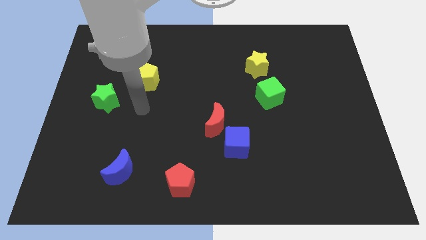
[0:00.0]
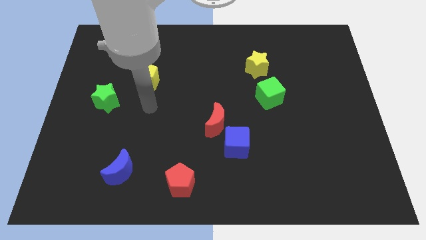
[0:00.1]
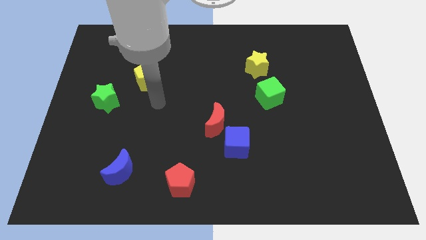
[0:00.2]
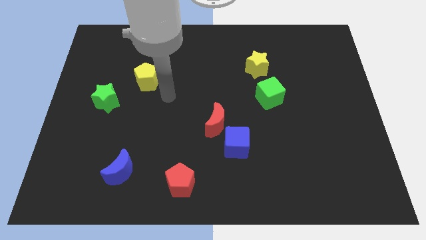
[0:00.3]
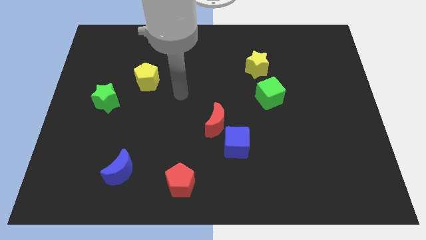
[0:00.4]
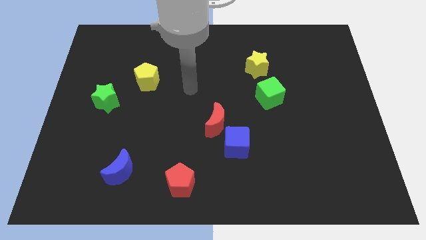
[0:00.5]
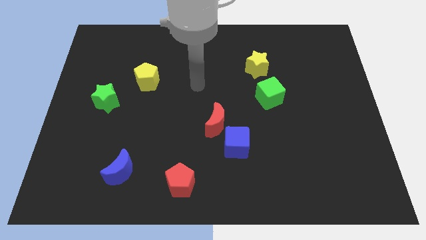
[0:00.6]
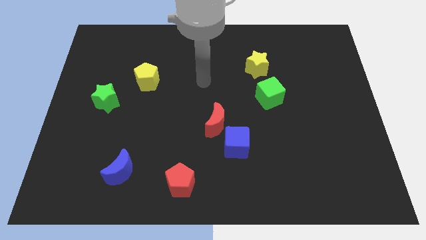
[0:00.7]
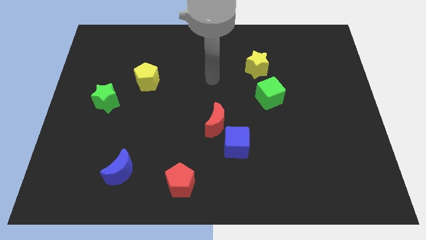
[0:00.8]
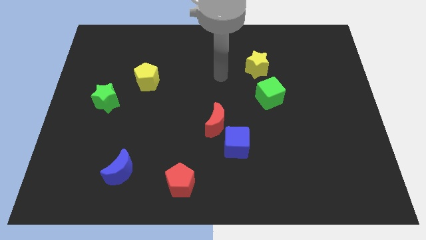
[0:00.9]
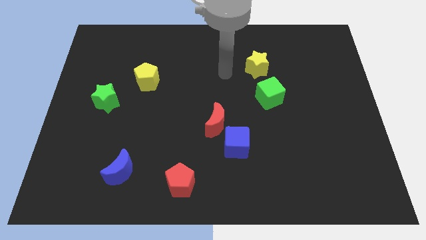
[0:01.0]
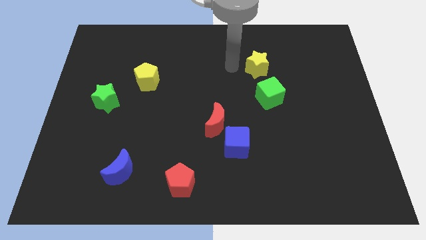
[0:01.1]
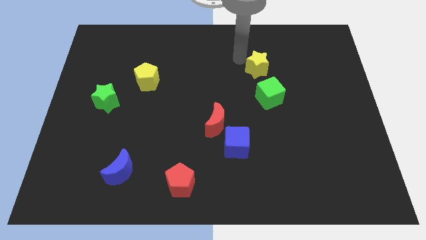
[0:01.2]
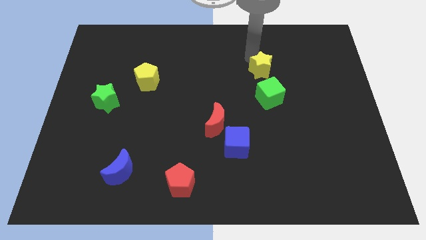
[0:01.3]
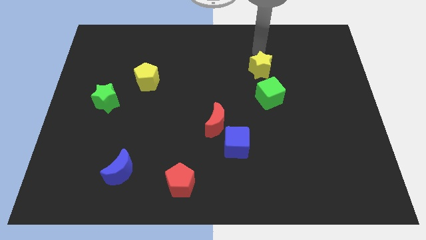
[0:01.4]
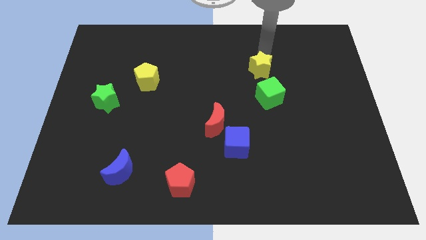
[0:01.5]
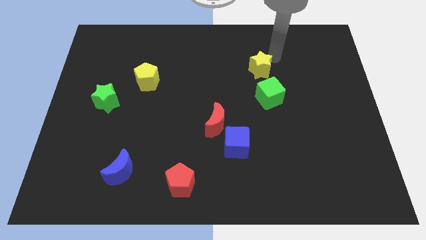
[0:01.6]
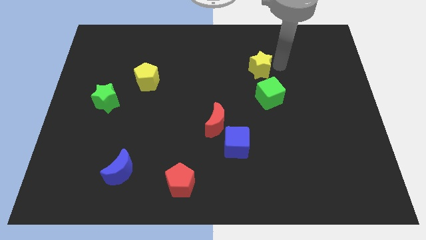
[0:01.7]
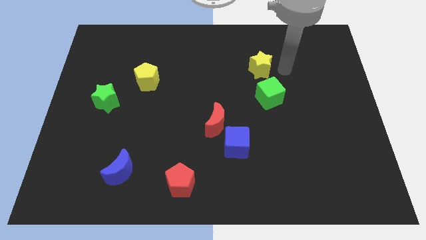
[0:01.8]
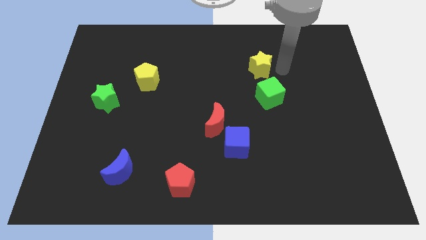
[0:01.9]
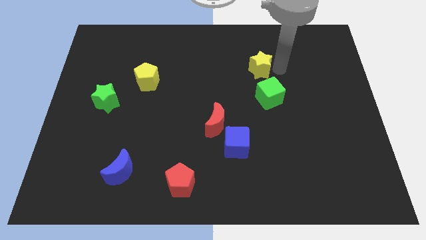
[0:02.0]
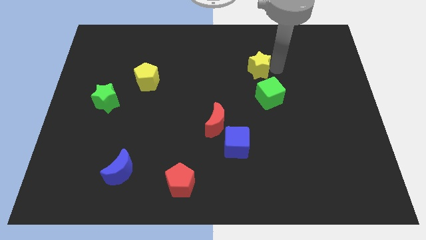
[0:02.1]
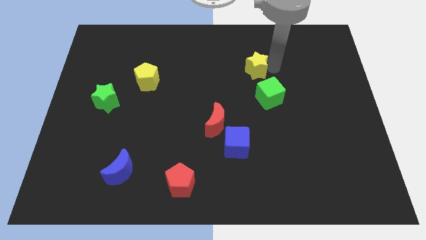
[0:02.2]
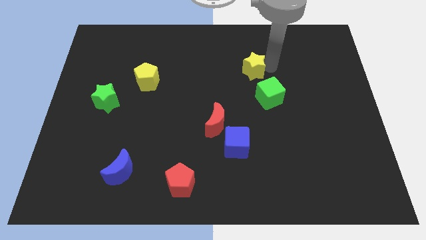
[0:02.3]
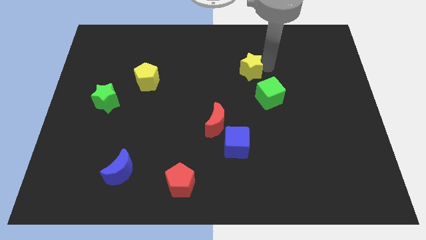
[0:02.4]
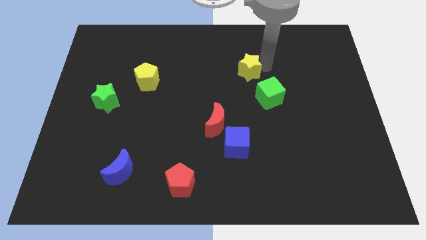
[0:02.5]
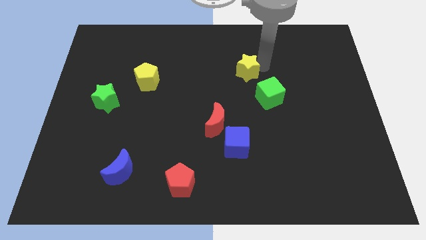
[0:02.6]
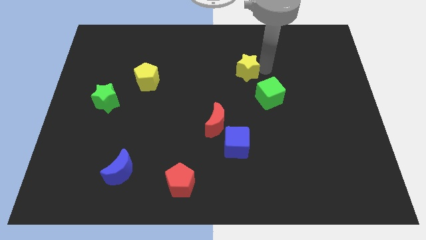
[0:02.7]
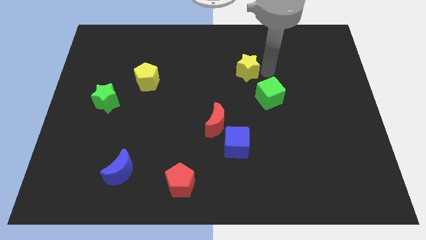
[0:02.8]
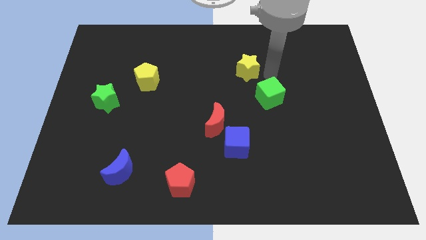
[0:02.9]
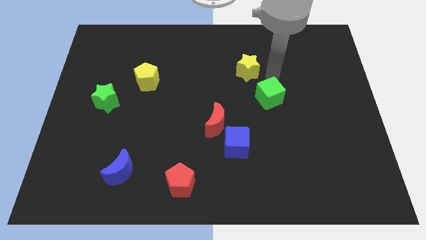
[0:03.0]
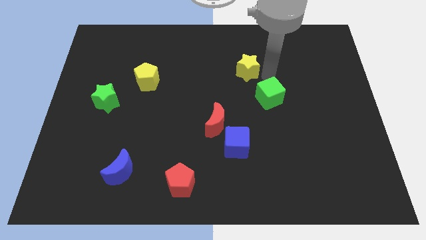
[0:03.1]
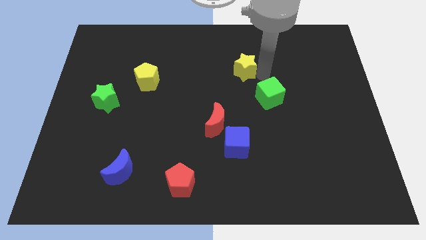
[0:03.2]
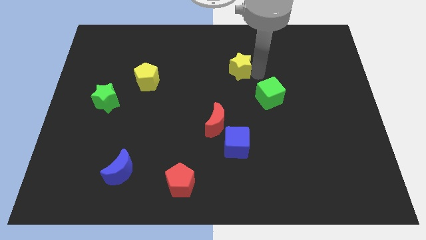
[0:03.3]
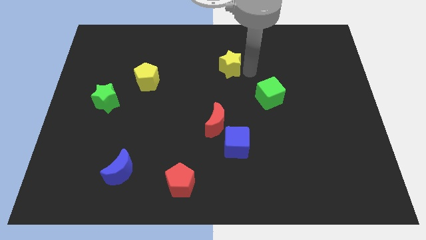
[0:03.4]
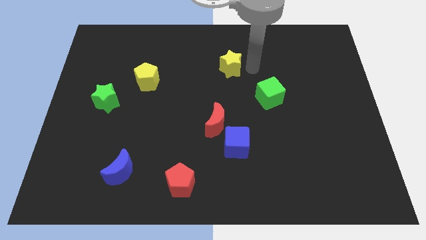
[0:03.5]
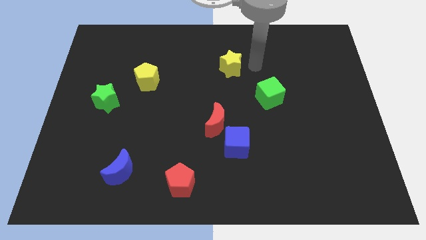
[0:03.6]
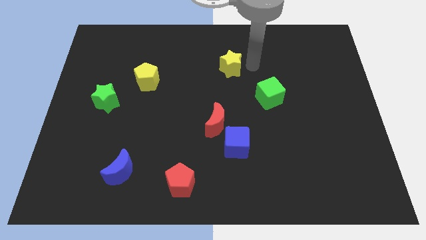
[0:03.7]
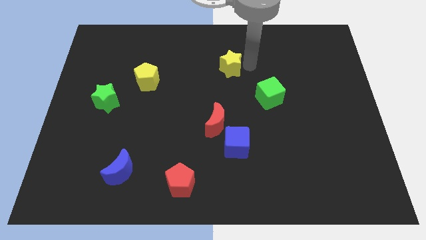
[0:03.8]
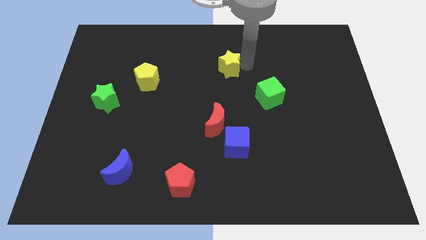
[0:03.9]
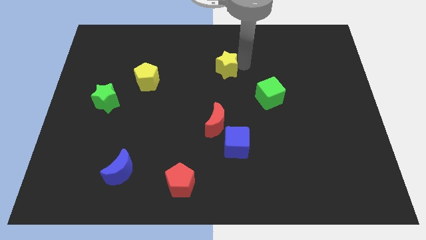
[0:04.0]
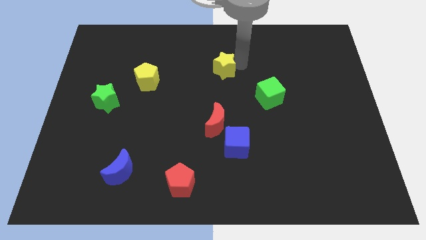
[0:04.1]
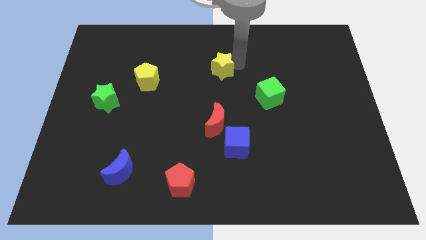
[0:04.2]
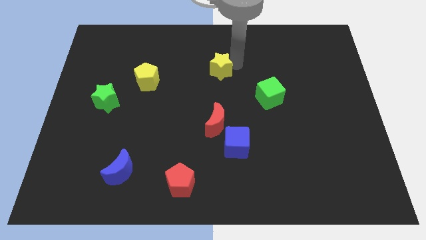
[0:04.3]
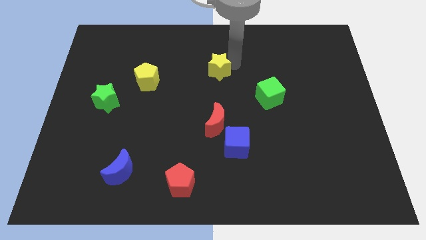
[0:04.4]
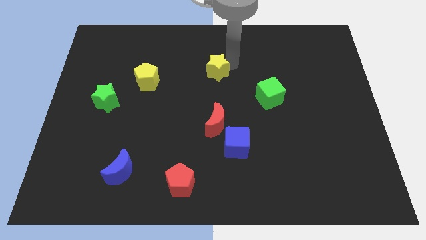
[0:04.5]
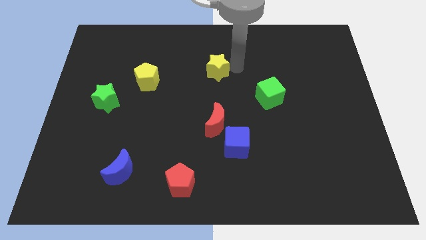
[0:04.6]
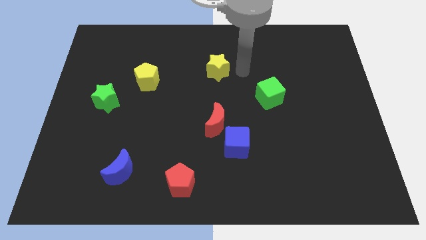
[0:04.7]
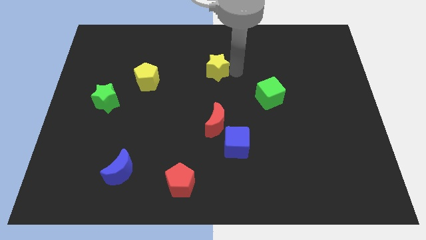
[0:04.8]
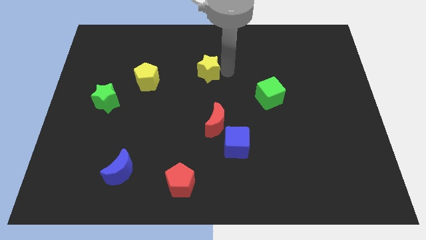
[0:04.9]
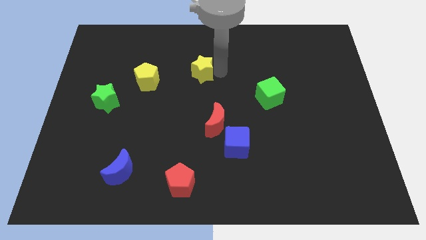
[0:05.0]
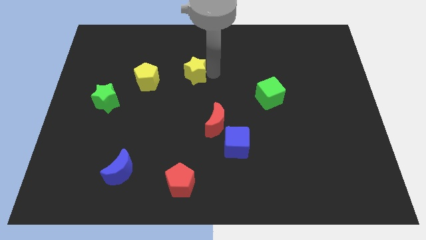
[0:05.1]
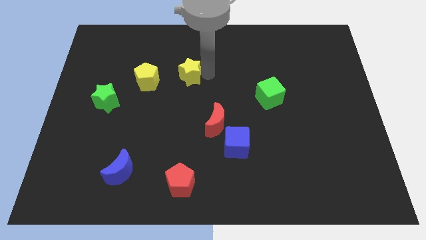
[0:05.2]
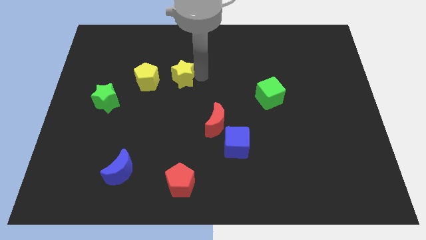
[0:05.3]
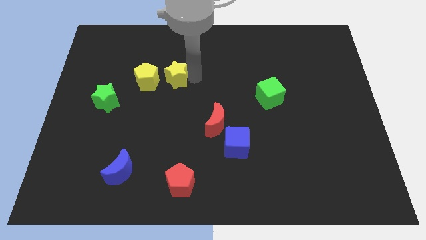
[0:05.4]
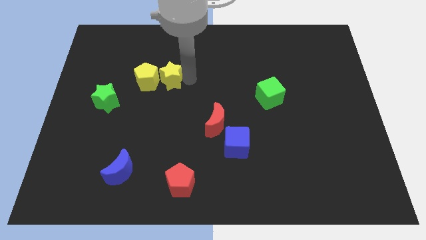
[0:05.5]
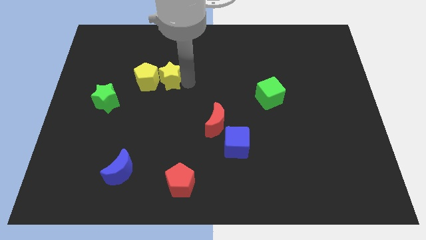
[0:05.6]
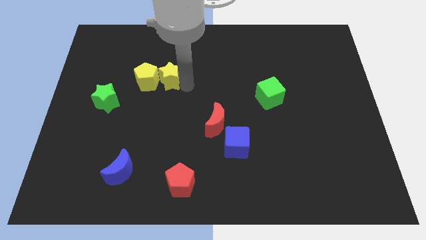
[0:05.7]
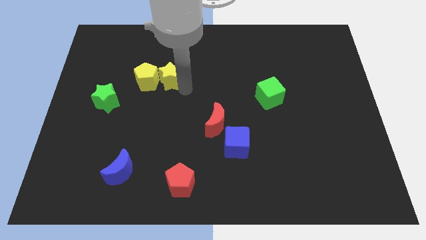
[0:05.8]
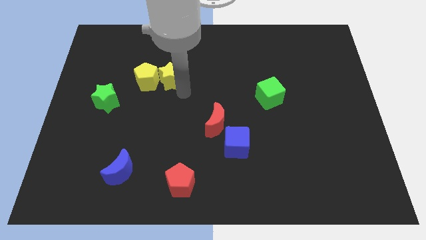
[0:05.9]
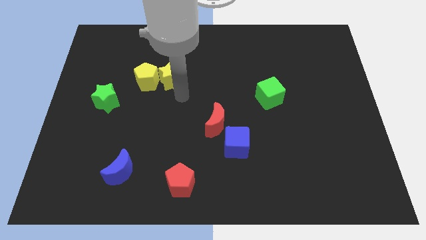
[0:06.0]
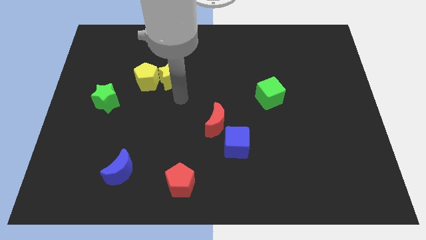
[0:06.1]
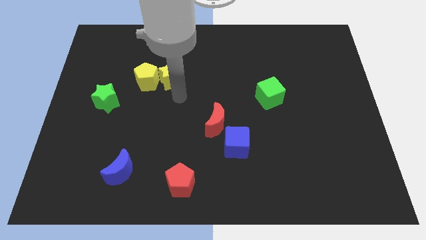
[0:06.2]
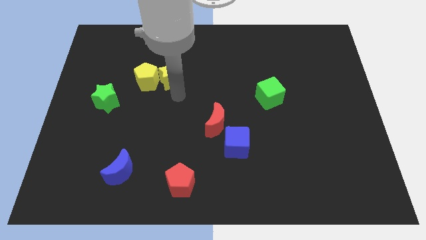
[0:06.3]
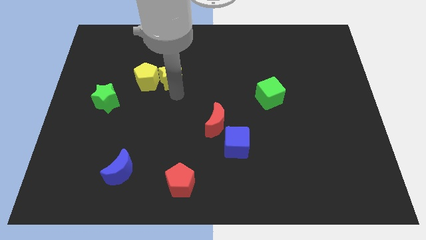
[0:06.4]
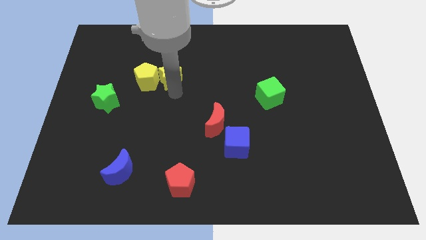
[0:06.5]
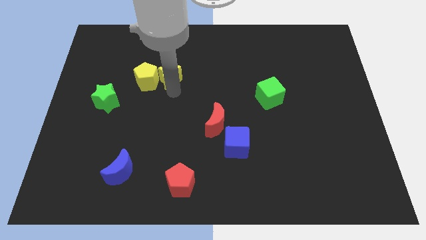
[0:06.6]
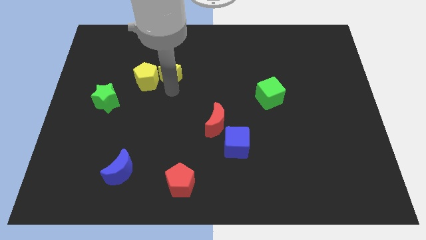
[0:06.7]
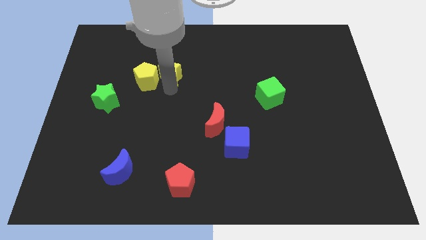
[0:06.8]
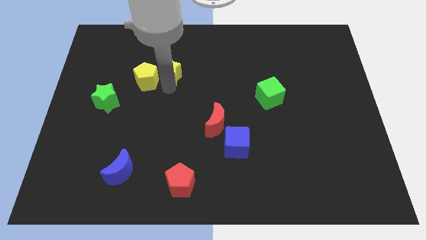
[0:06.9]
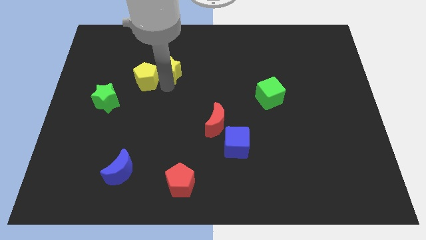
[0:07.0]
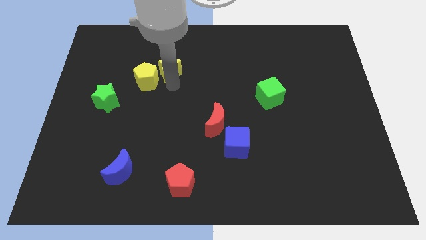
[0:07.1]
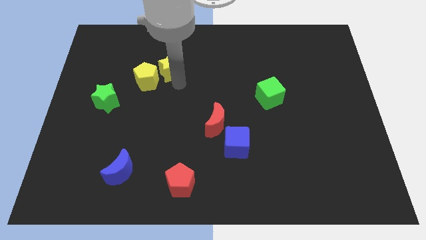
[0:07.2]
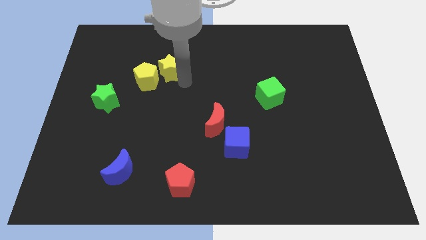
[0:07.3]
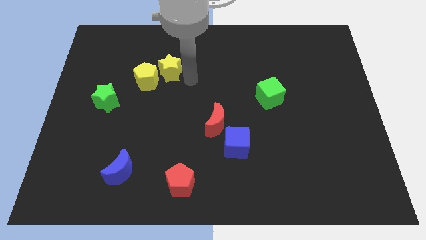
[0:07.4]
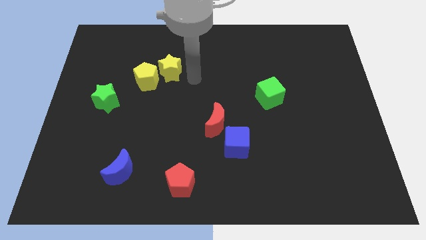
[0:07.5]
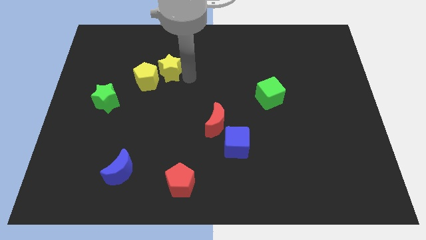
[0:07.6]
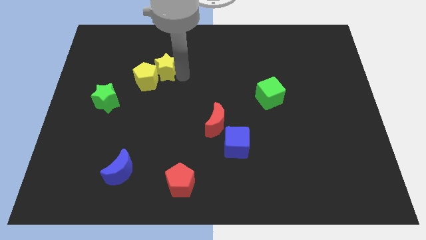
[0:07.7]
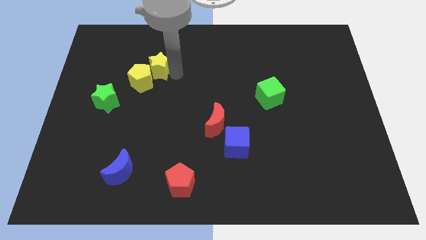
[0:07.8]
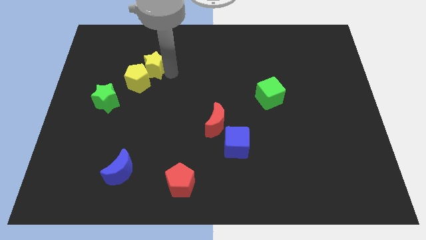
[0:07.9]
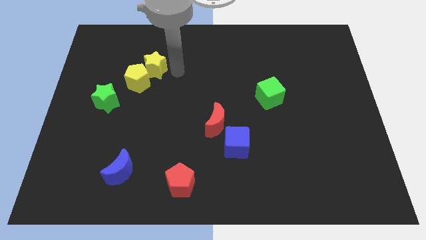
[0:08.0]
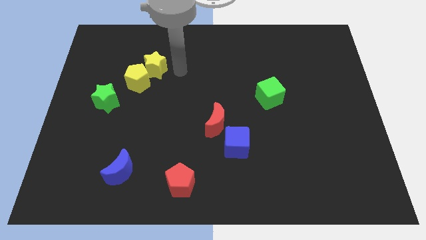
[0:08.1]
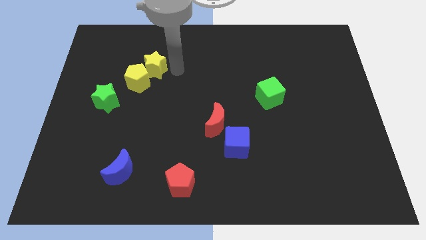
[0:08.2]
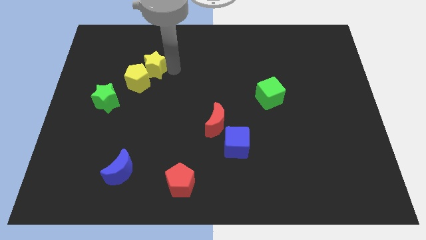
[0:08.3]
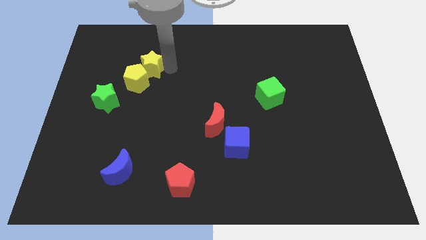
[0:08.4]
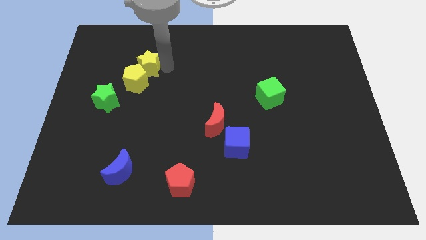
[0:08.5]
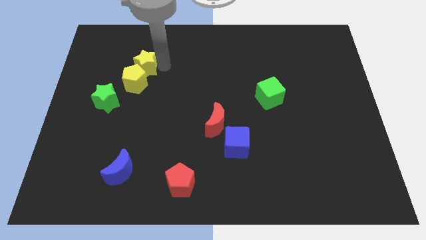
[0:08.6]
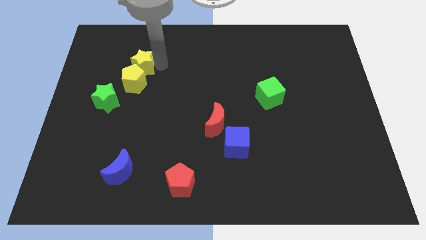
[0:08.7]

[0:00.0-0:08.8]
move the yellow star diagonally up and to the left of the yellow pentagon
